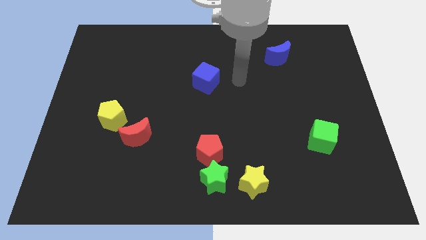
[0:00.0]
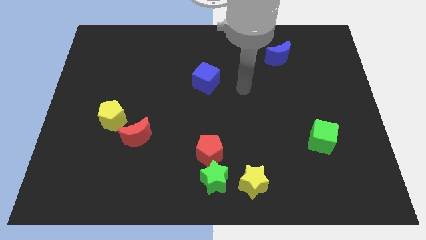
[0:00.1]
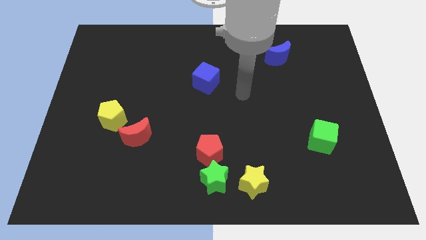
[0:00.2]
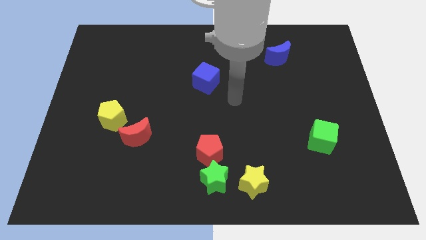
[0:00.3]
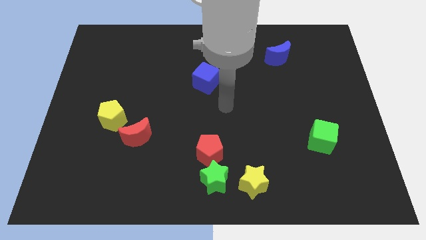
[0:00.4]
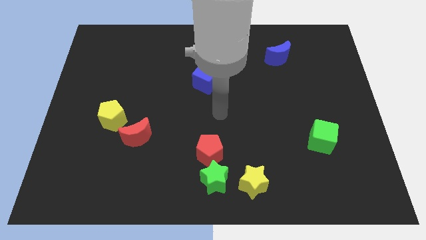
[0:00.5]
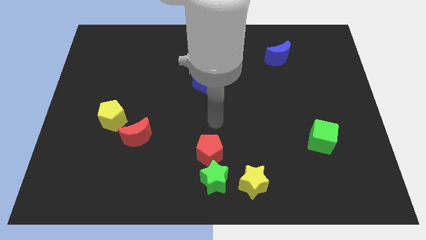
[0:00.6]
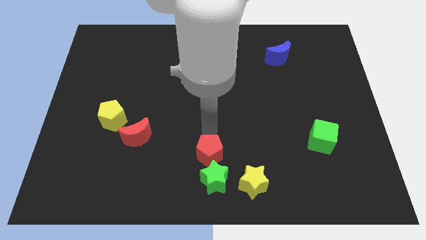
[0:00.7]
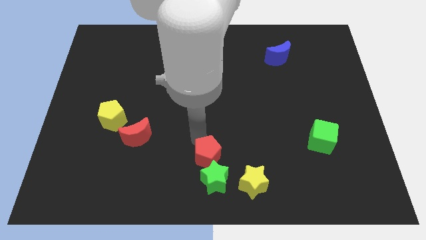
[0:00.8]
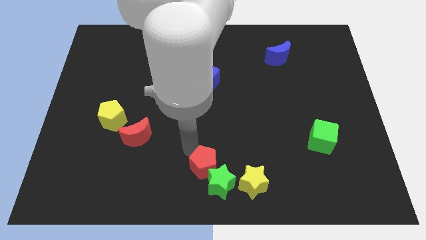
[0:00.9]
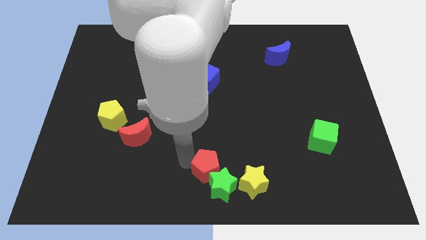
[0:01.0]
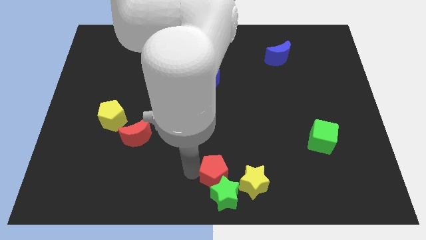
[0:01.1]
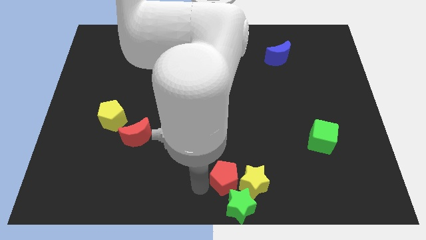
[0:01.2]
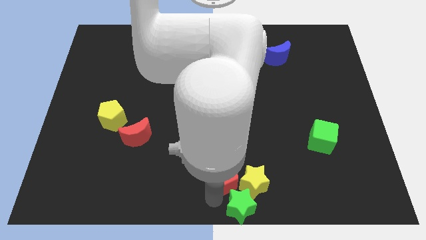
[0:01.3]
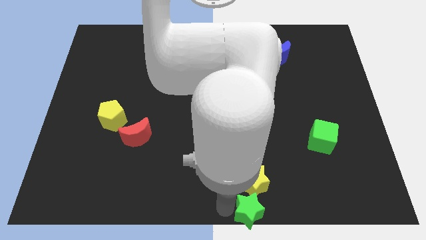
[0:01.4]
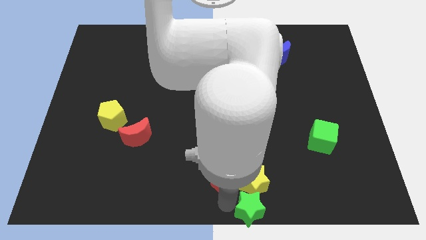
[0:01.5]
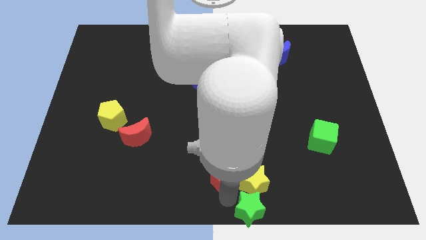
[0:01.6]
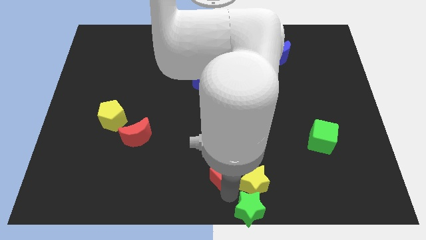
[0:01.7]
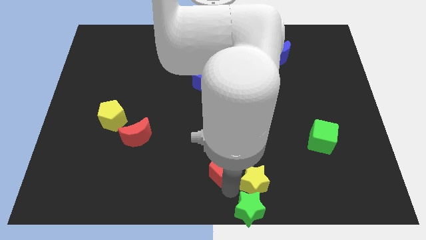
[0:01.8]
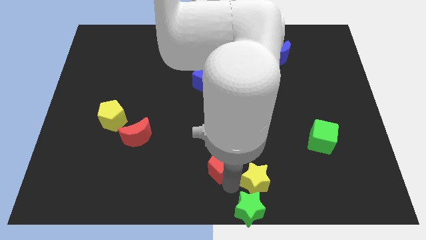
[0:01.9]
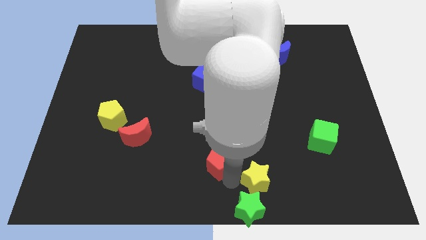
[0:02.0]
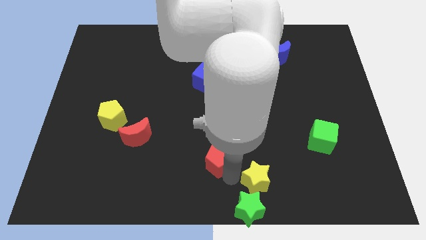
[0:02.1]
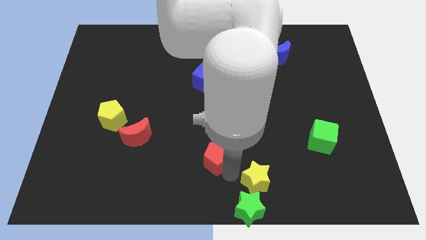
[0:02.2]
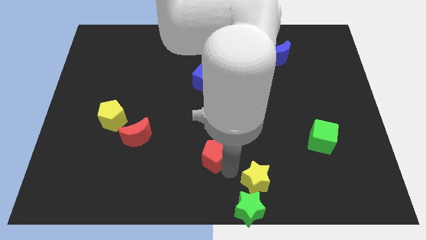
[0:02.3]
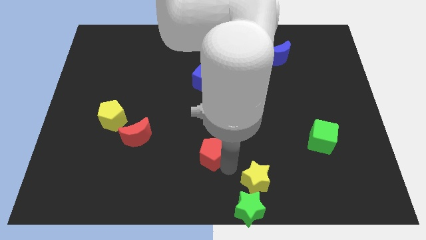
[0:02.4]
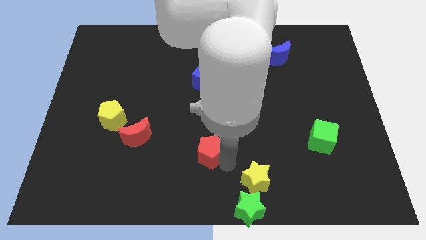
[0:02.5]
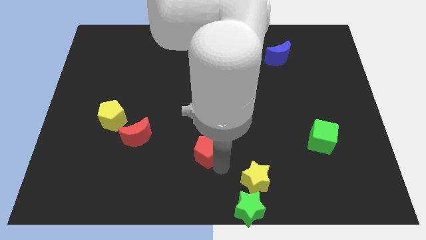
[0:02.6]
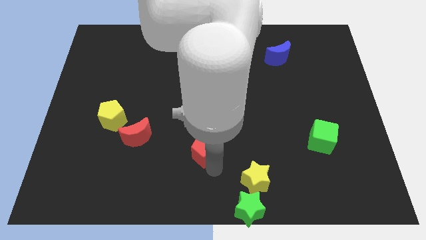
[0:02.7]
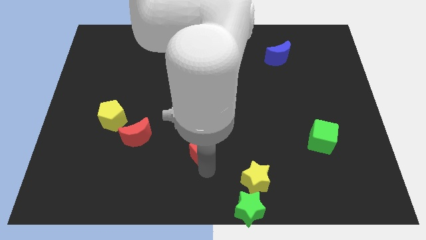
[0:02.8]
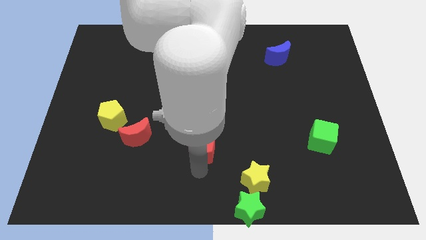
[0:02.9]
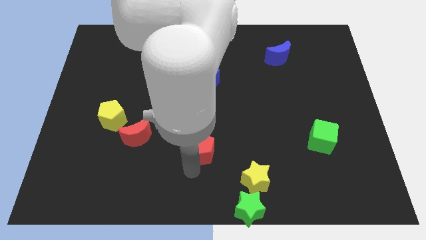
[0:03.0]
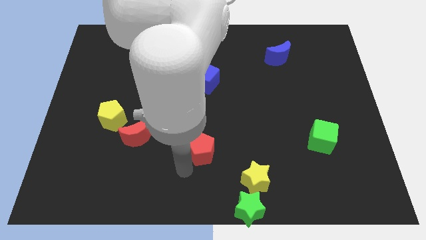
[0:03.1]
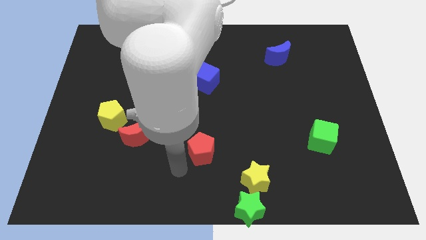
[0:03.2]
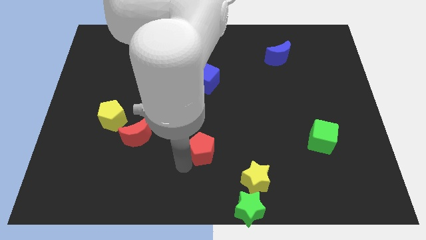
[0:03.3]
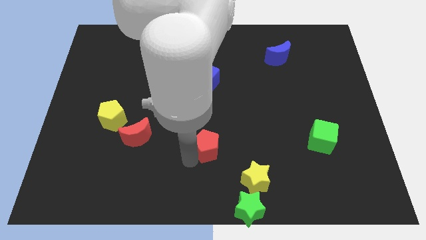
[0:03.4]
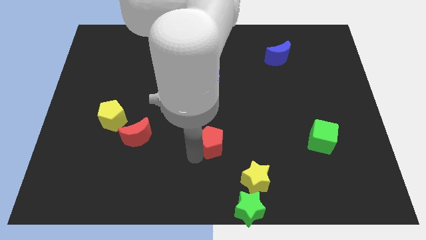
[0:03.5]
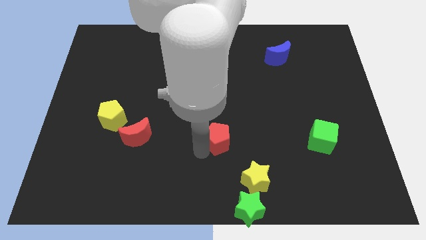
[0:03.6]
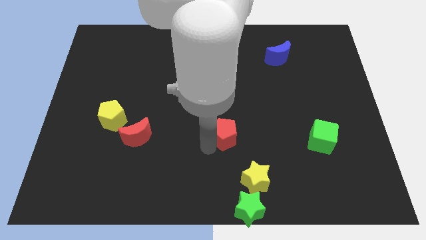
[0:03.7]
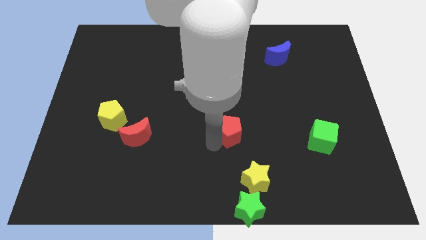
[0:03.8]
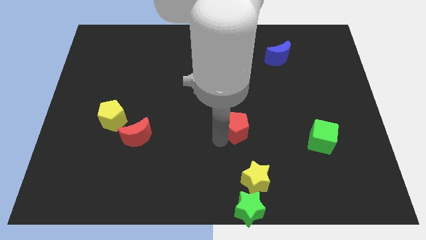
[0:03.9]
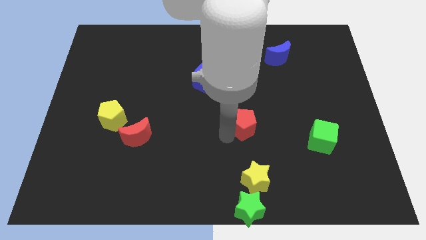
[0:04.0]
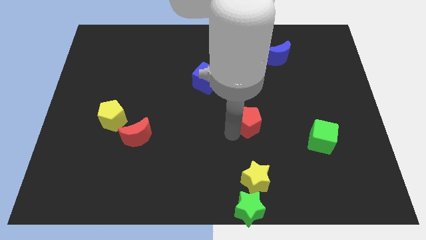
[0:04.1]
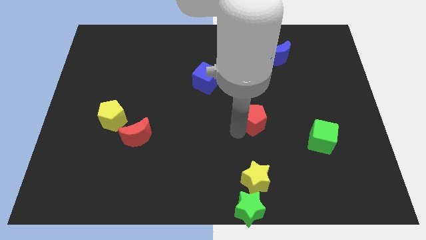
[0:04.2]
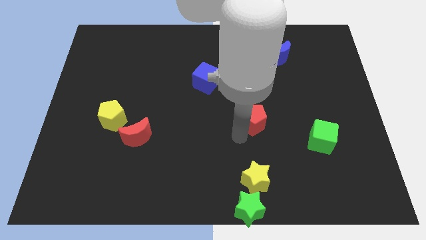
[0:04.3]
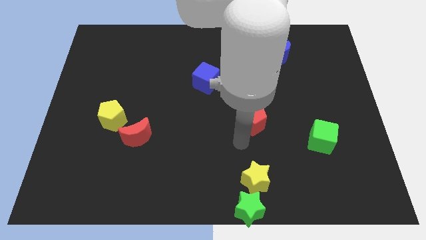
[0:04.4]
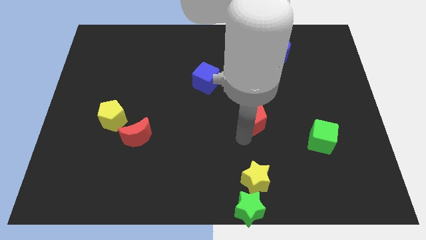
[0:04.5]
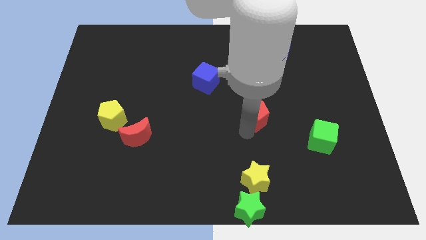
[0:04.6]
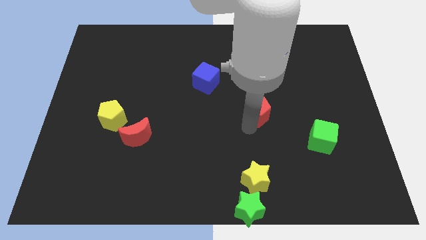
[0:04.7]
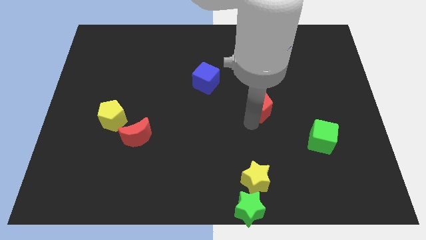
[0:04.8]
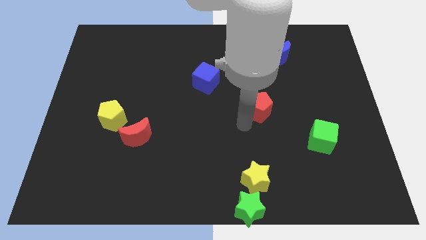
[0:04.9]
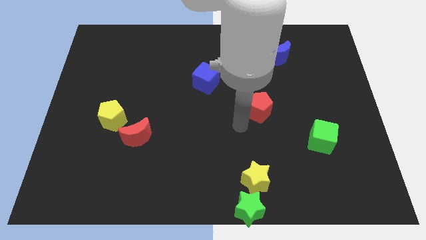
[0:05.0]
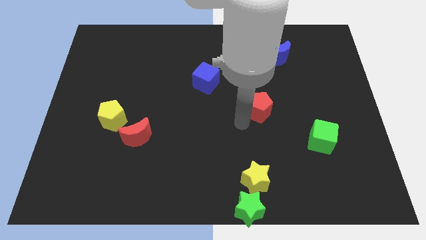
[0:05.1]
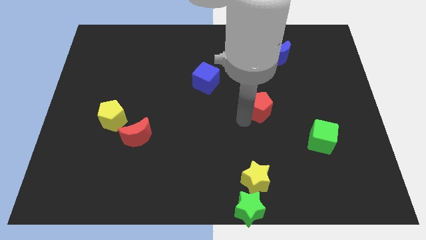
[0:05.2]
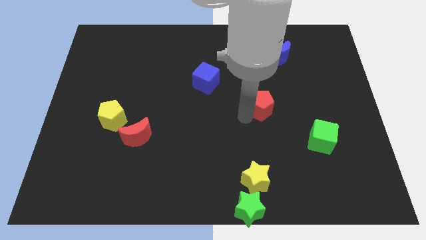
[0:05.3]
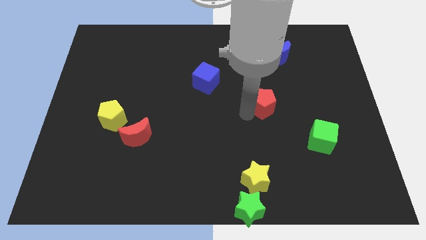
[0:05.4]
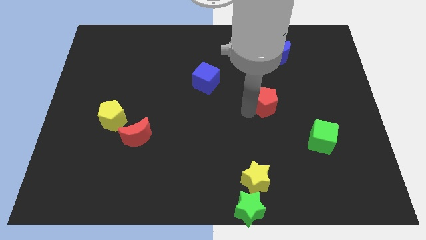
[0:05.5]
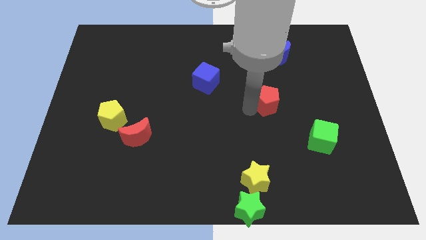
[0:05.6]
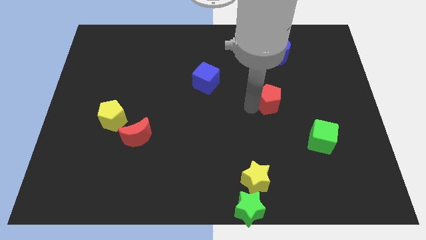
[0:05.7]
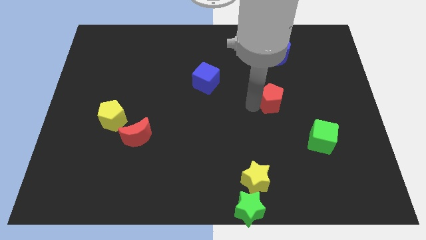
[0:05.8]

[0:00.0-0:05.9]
move the red pentagon up and right diagonally

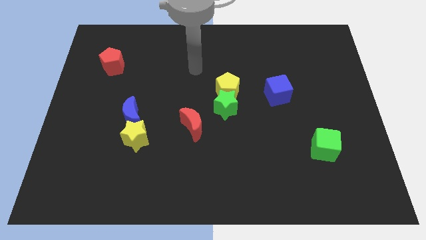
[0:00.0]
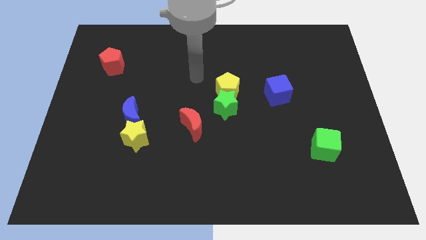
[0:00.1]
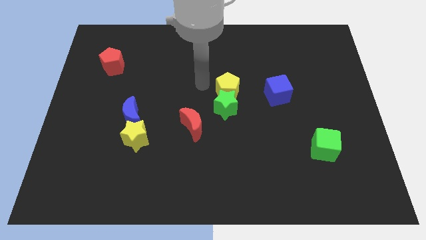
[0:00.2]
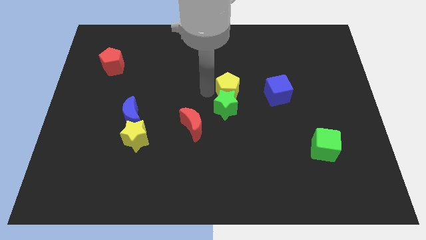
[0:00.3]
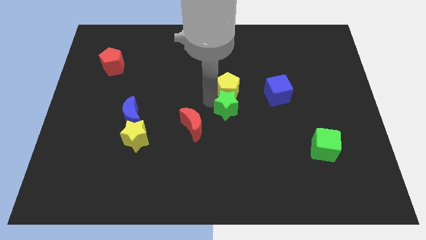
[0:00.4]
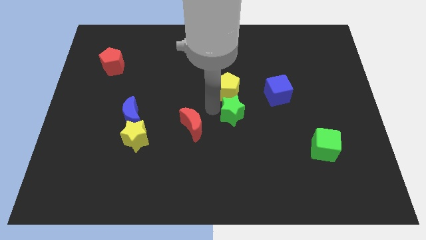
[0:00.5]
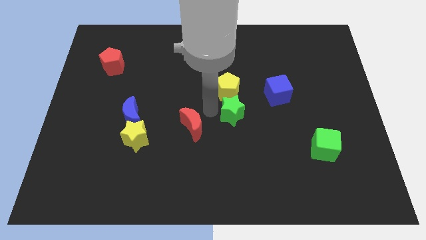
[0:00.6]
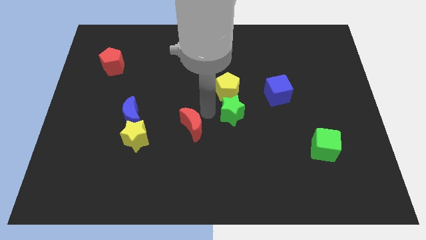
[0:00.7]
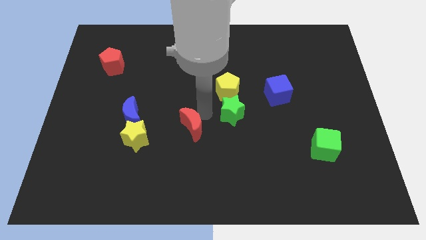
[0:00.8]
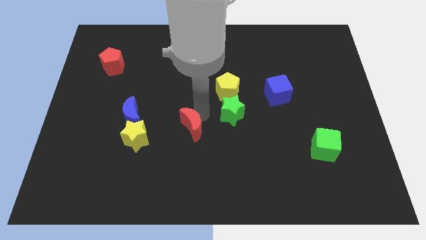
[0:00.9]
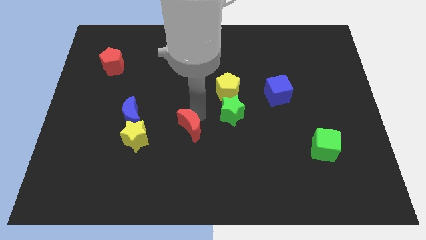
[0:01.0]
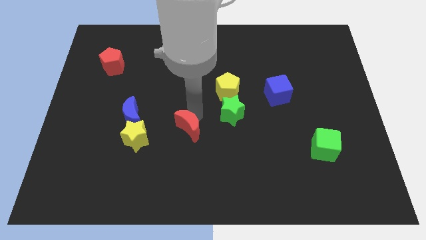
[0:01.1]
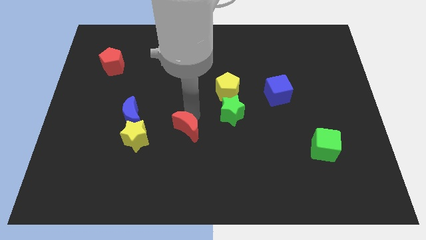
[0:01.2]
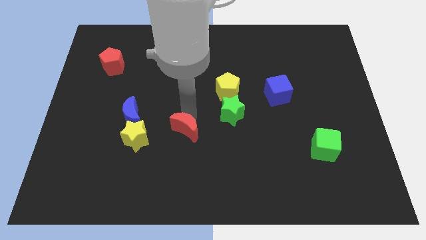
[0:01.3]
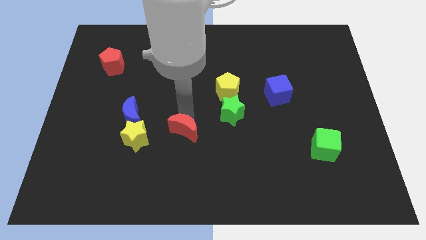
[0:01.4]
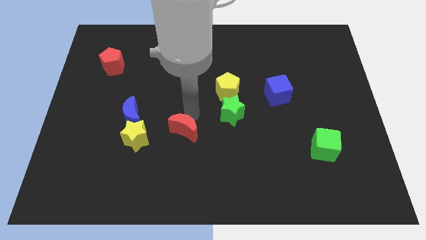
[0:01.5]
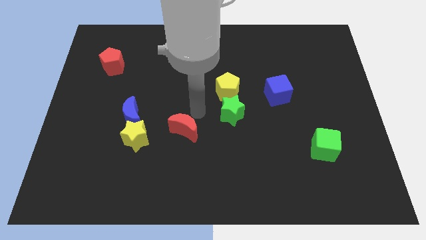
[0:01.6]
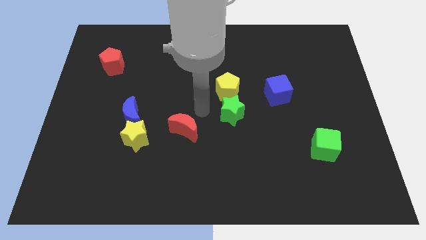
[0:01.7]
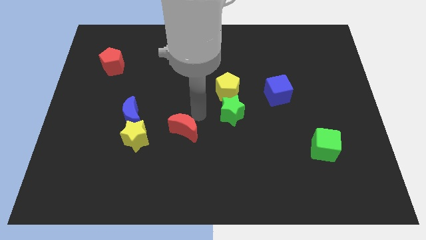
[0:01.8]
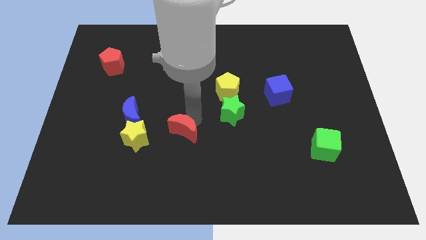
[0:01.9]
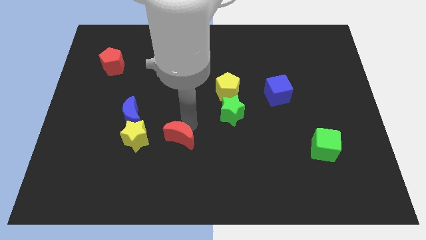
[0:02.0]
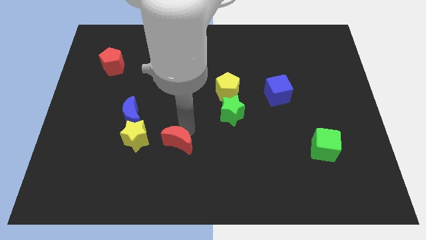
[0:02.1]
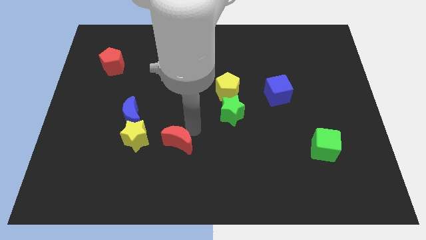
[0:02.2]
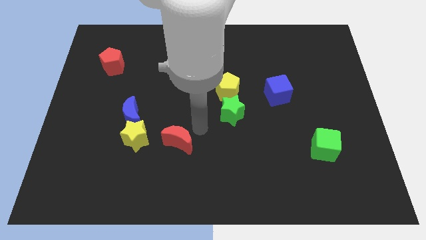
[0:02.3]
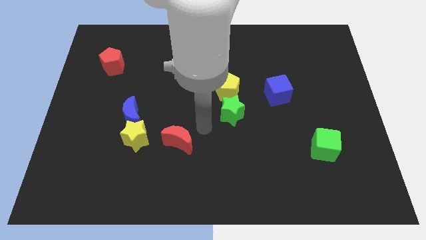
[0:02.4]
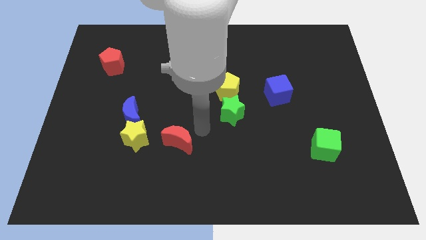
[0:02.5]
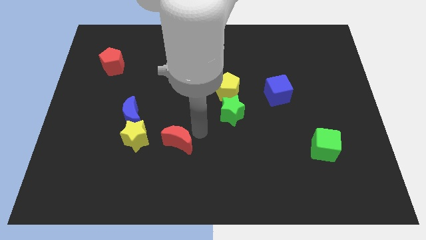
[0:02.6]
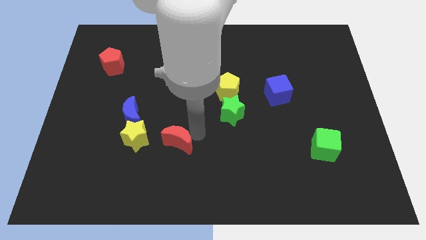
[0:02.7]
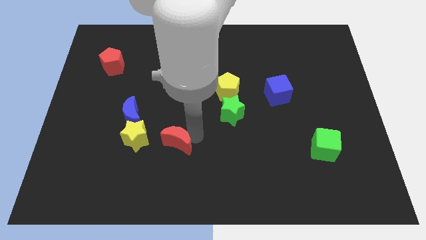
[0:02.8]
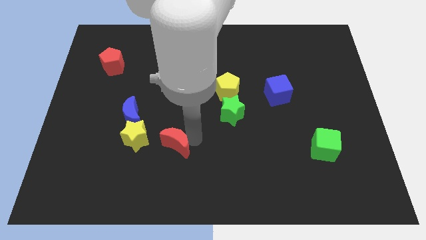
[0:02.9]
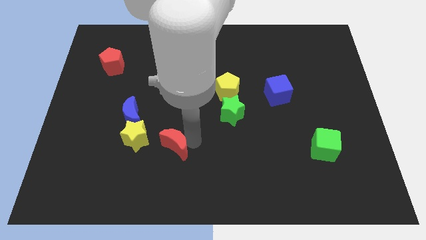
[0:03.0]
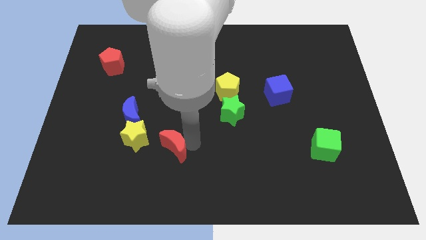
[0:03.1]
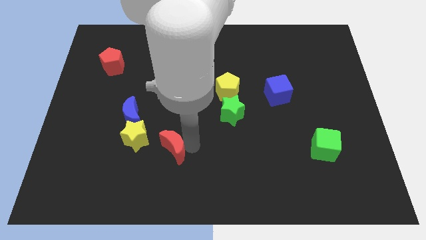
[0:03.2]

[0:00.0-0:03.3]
move the red moon somewhat diagonally down and left
